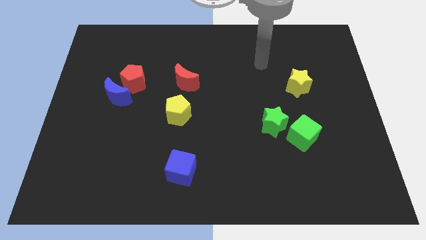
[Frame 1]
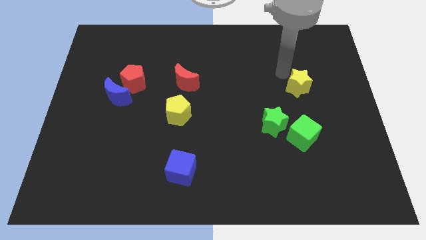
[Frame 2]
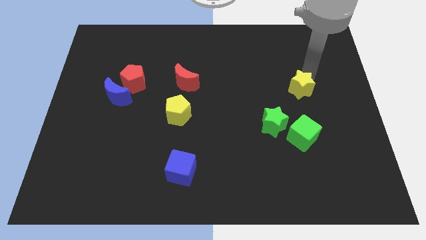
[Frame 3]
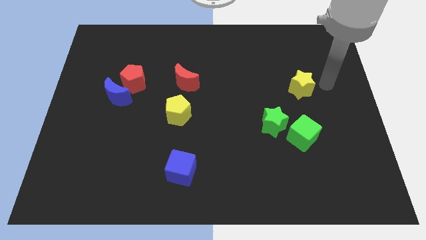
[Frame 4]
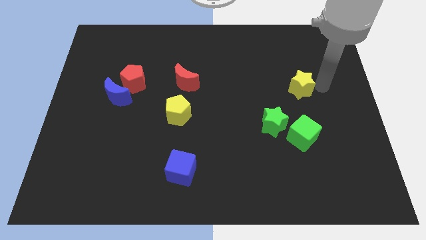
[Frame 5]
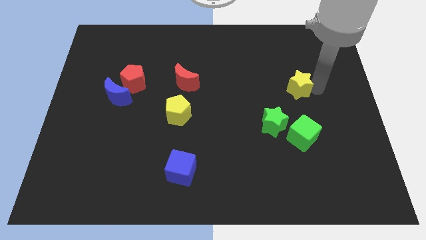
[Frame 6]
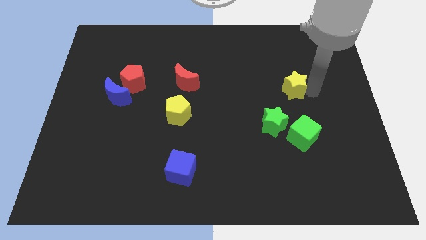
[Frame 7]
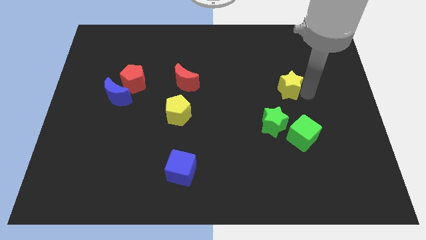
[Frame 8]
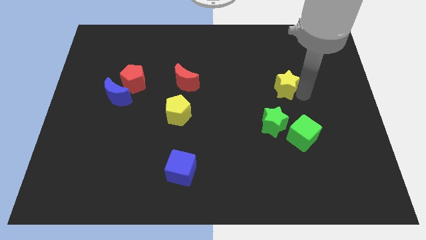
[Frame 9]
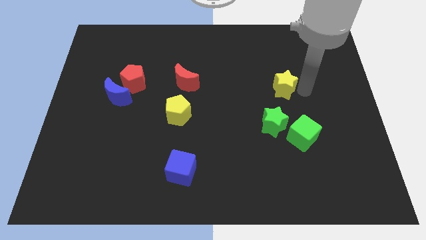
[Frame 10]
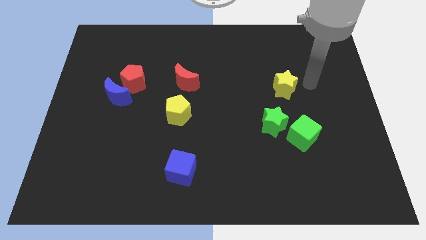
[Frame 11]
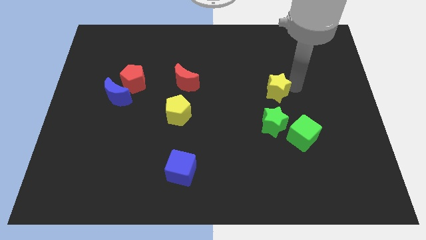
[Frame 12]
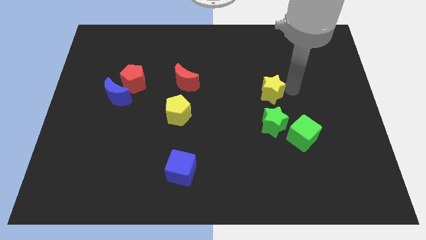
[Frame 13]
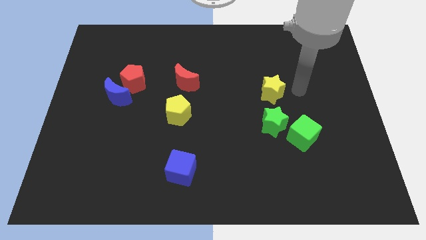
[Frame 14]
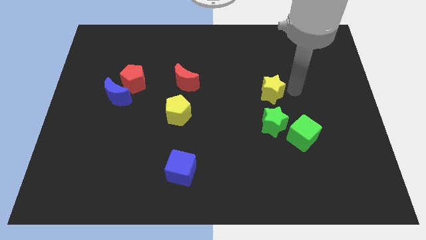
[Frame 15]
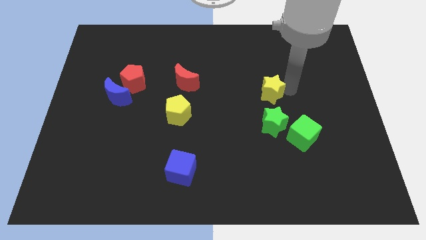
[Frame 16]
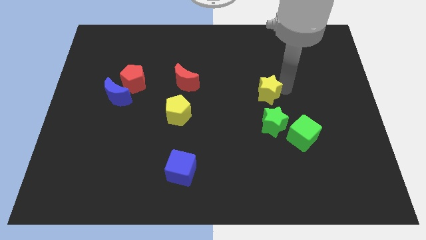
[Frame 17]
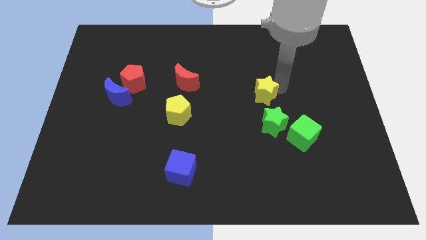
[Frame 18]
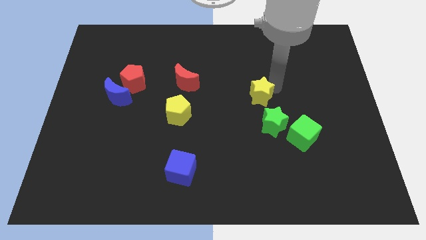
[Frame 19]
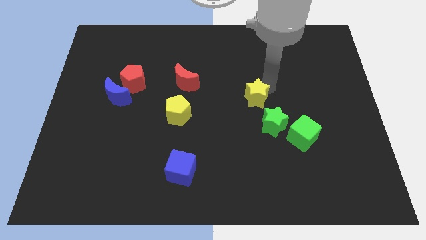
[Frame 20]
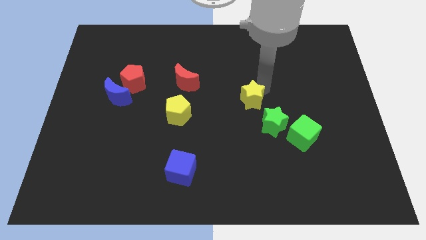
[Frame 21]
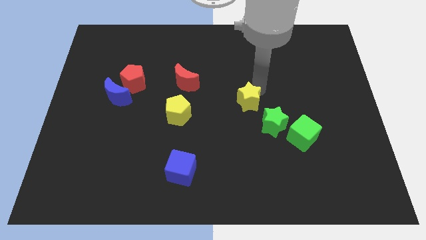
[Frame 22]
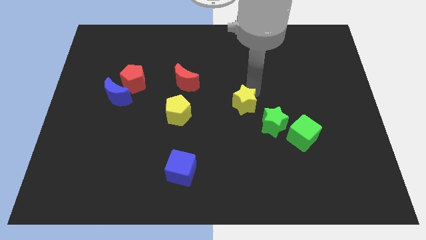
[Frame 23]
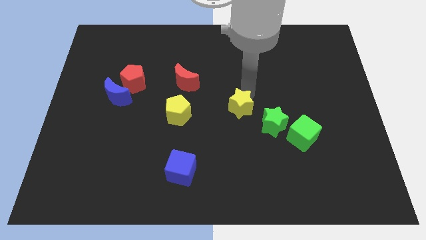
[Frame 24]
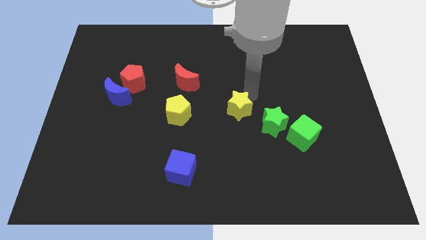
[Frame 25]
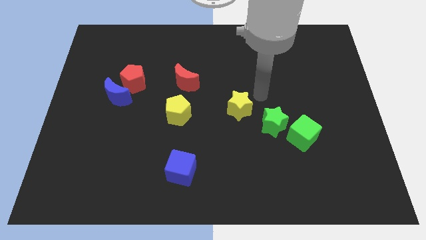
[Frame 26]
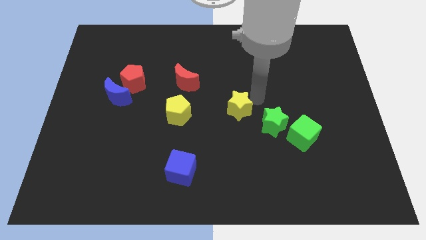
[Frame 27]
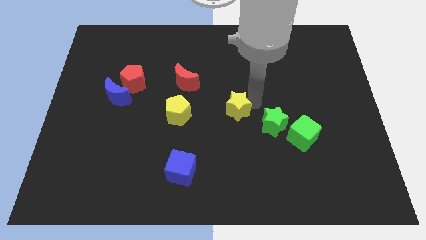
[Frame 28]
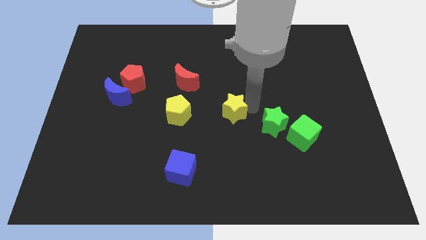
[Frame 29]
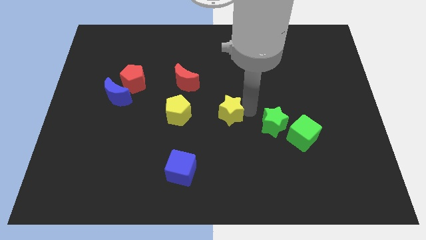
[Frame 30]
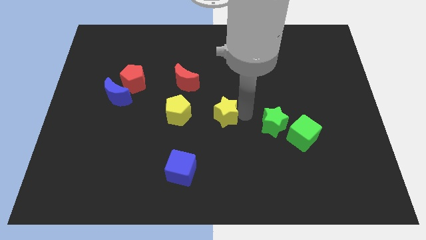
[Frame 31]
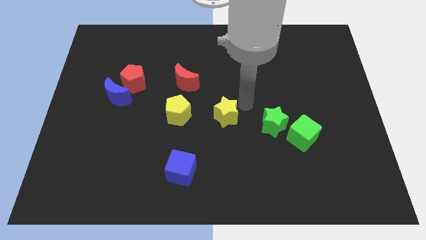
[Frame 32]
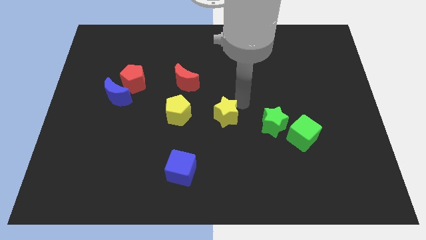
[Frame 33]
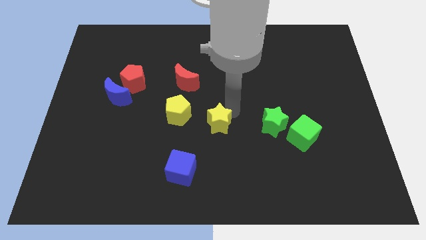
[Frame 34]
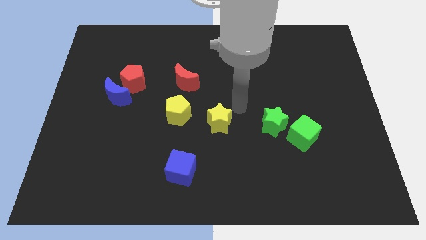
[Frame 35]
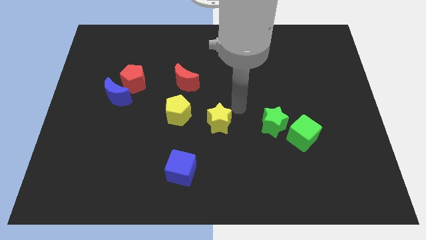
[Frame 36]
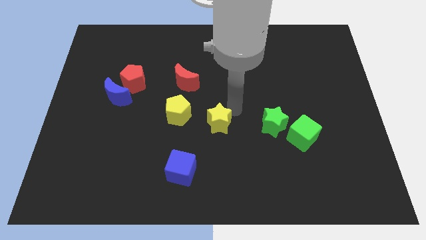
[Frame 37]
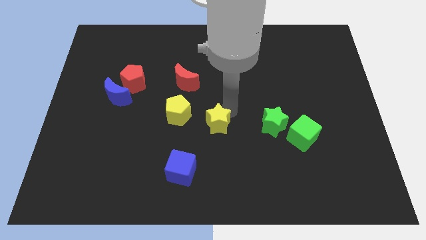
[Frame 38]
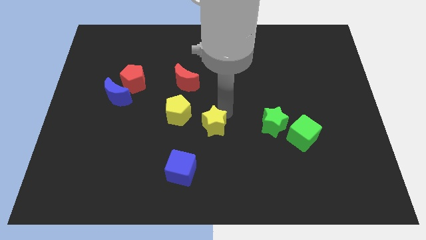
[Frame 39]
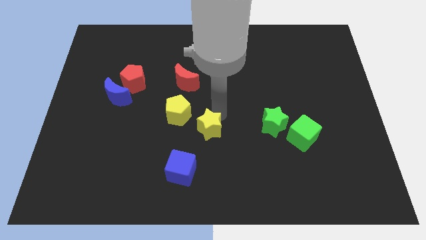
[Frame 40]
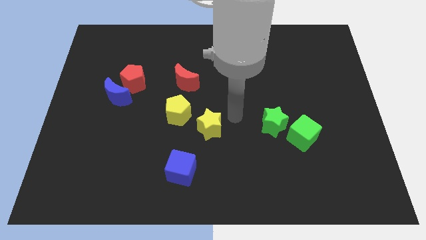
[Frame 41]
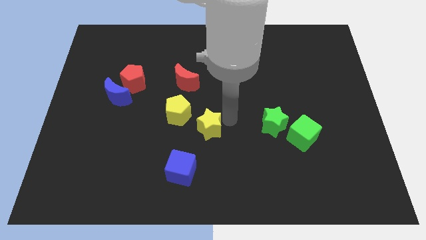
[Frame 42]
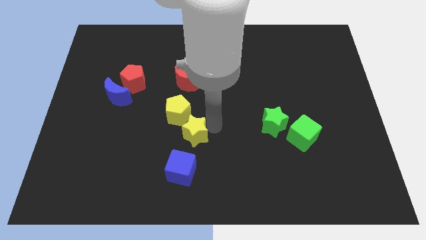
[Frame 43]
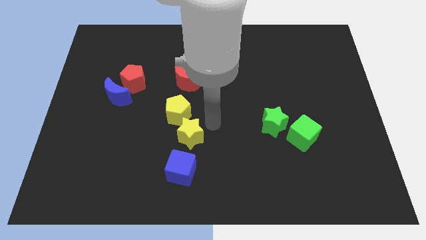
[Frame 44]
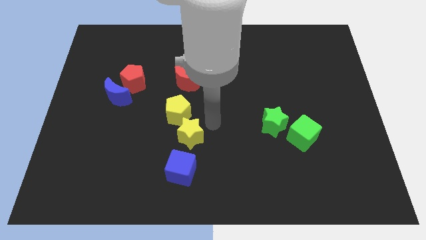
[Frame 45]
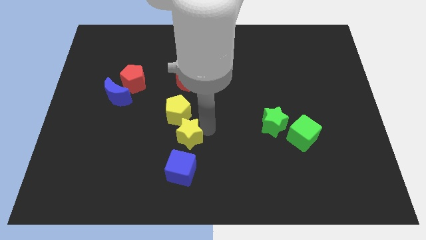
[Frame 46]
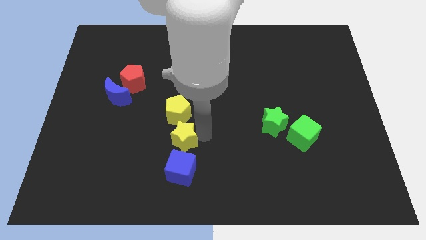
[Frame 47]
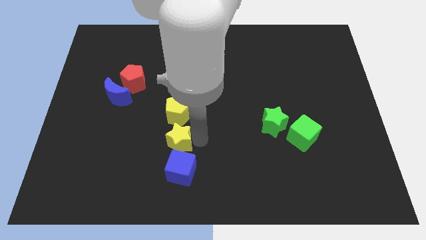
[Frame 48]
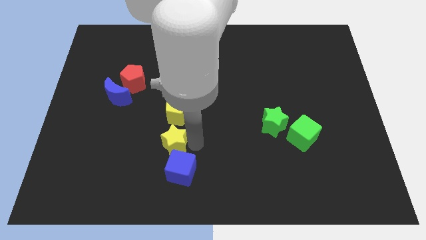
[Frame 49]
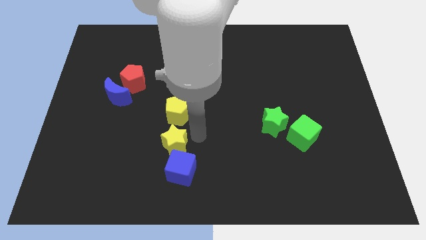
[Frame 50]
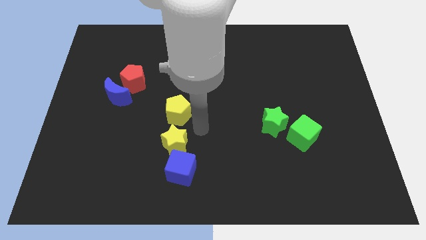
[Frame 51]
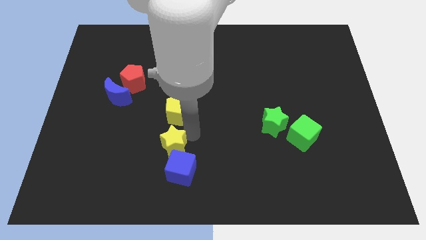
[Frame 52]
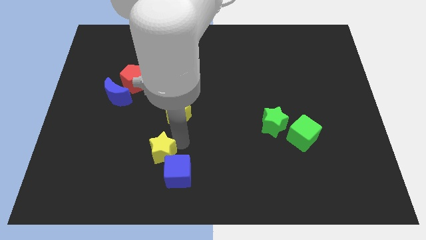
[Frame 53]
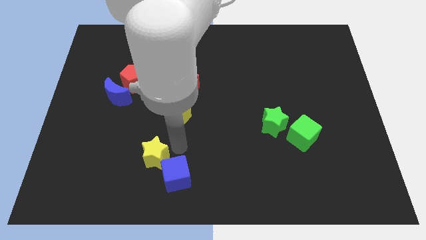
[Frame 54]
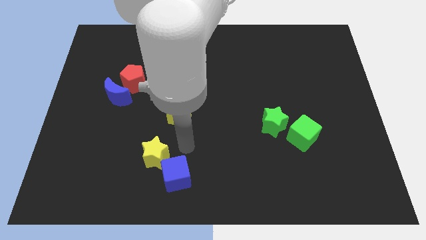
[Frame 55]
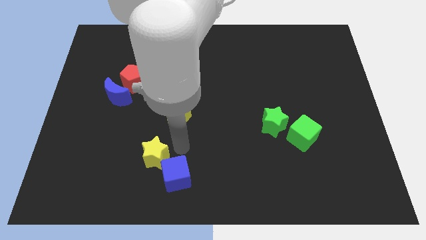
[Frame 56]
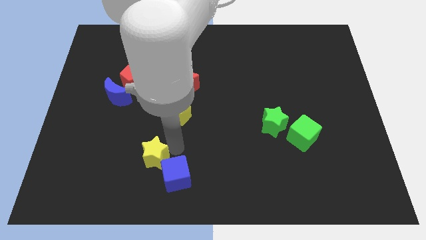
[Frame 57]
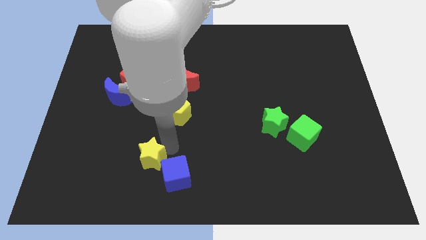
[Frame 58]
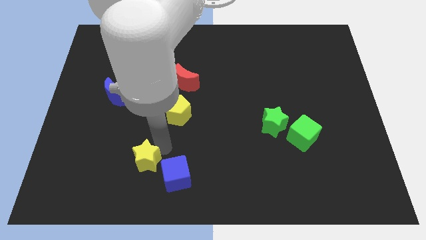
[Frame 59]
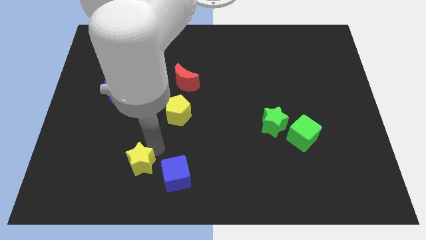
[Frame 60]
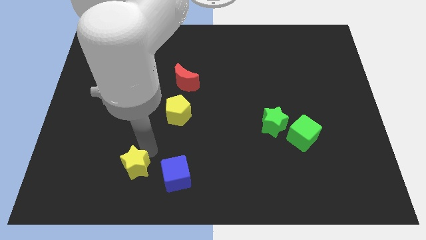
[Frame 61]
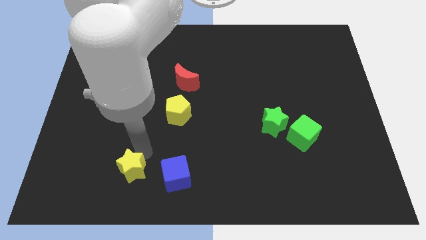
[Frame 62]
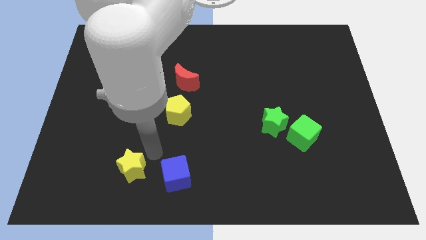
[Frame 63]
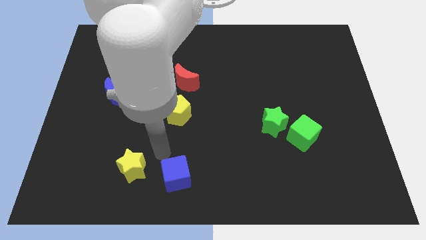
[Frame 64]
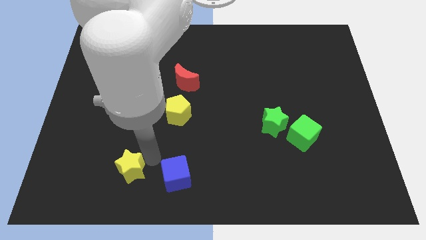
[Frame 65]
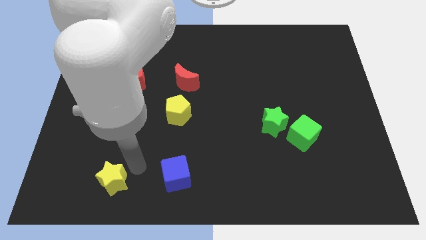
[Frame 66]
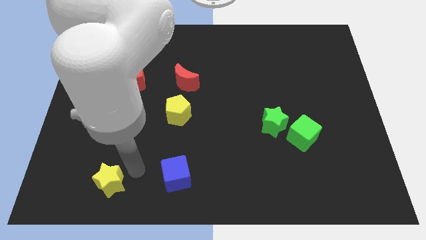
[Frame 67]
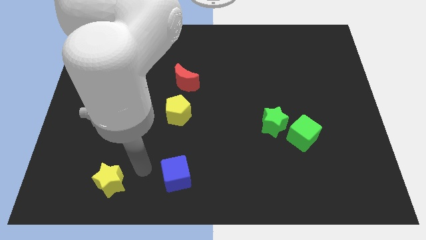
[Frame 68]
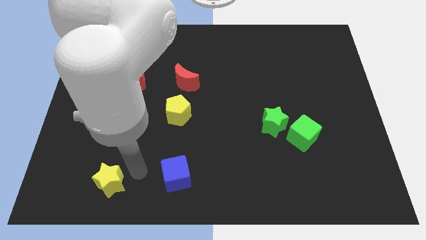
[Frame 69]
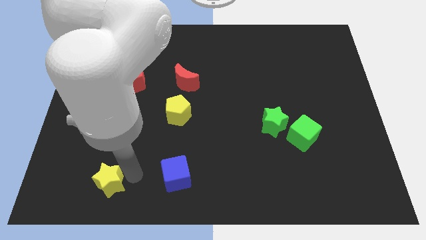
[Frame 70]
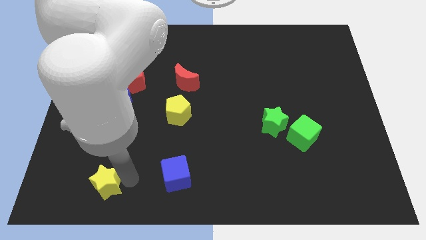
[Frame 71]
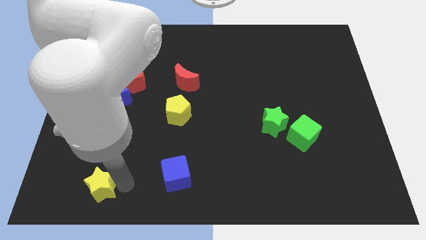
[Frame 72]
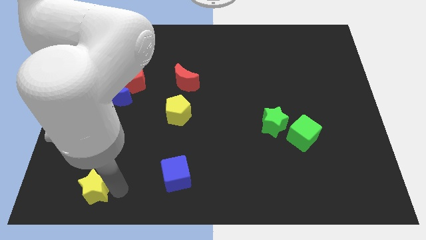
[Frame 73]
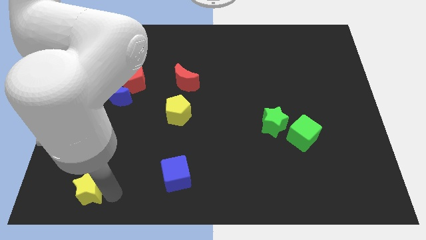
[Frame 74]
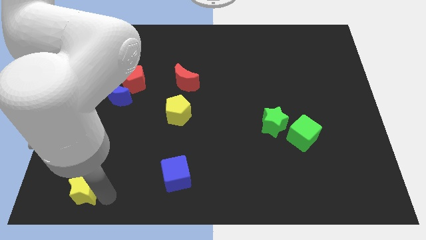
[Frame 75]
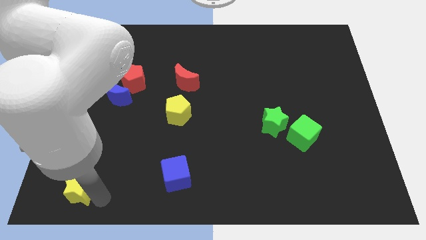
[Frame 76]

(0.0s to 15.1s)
move the yellow star to the bottom left of the board
